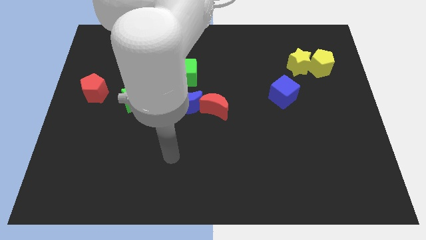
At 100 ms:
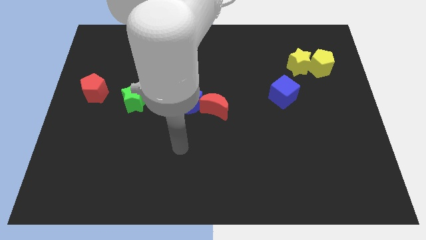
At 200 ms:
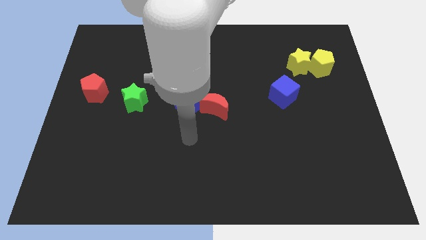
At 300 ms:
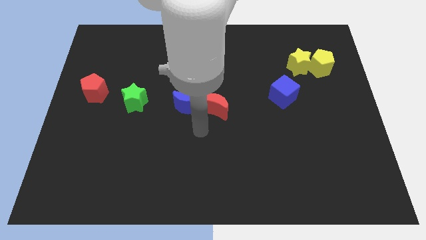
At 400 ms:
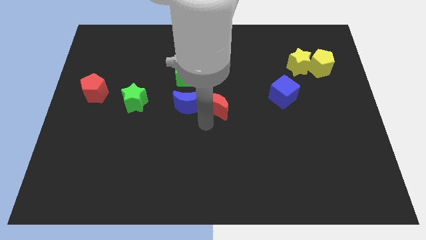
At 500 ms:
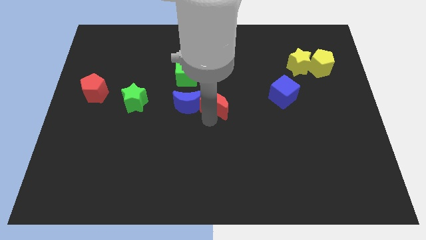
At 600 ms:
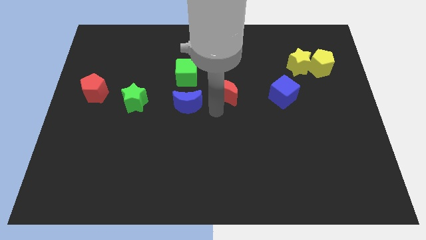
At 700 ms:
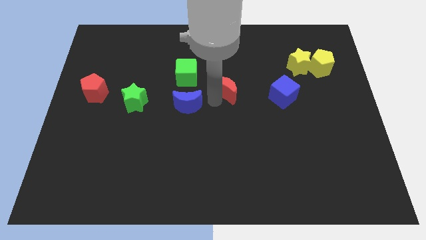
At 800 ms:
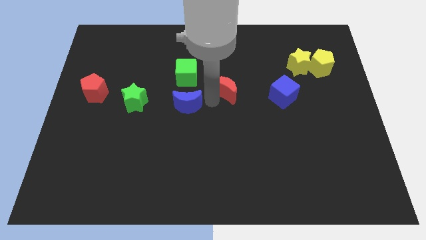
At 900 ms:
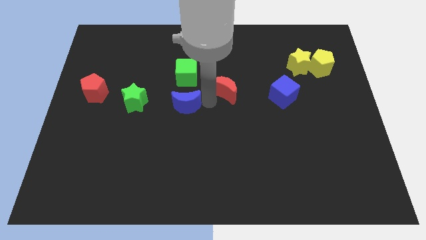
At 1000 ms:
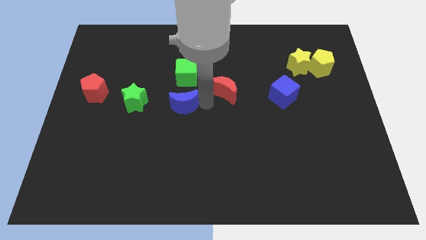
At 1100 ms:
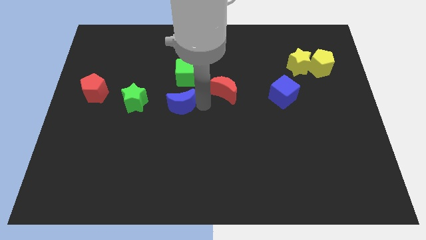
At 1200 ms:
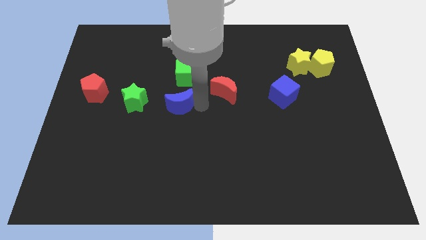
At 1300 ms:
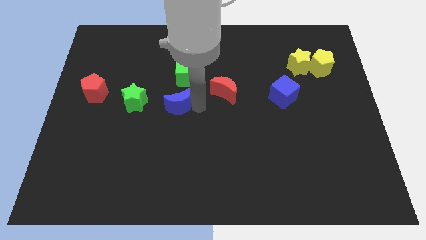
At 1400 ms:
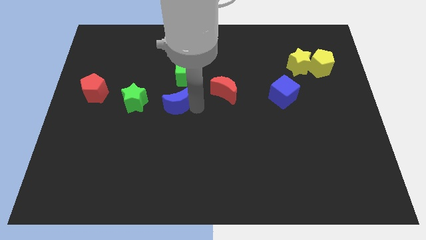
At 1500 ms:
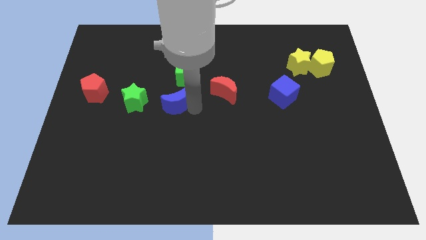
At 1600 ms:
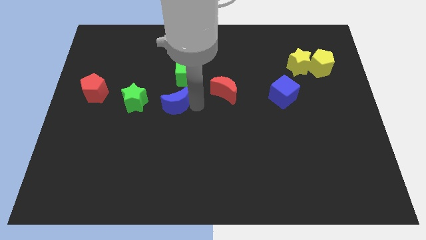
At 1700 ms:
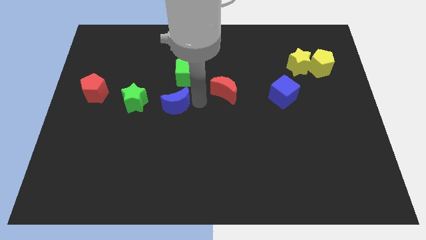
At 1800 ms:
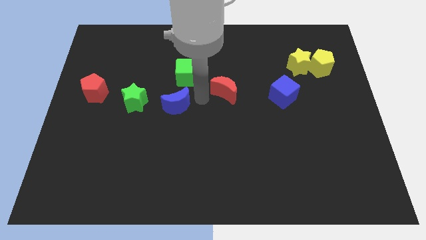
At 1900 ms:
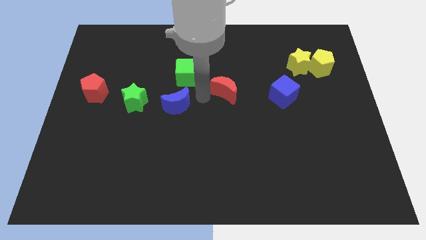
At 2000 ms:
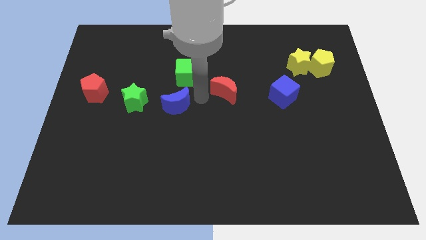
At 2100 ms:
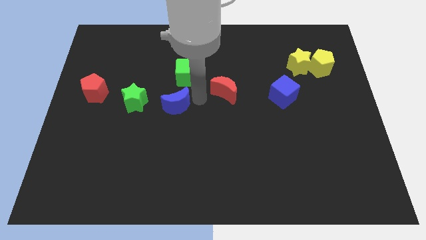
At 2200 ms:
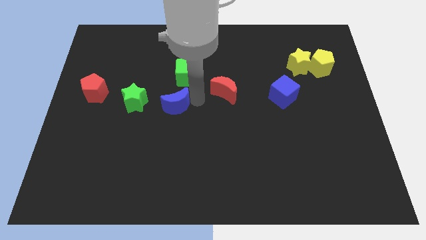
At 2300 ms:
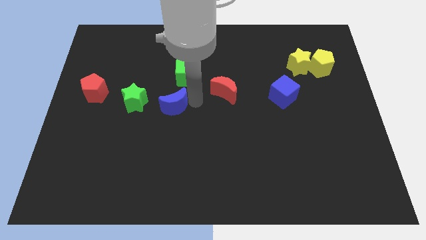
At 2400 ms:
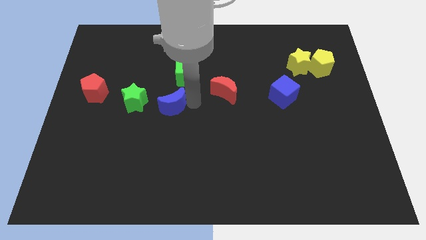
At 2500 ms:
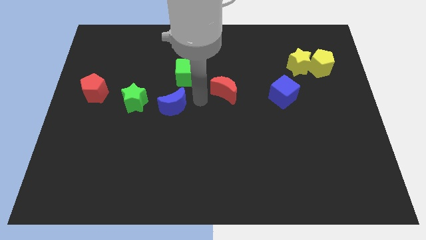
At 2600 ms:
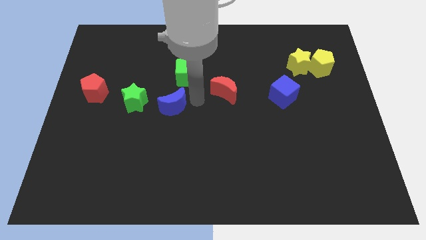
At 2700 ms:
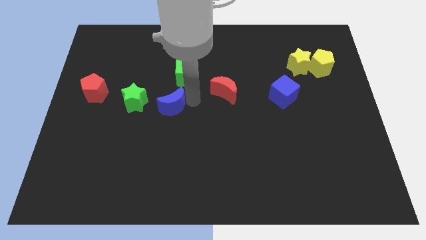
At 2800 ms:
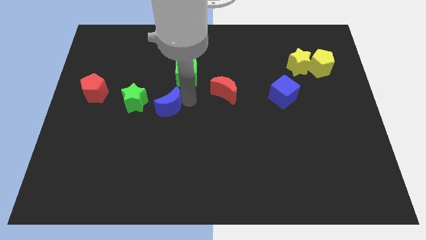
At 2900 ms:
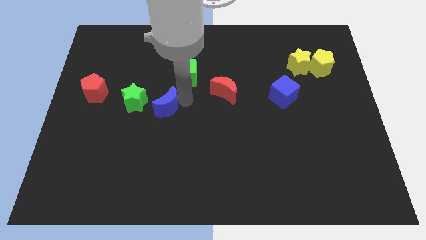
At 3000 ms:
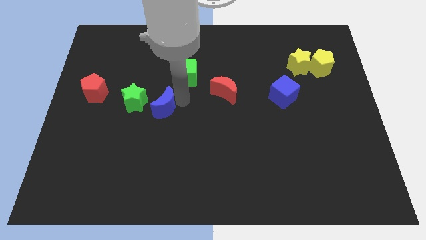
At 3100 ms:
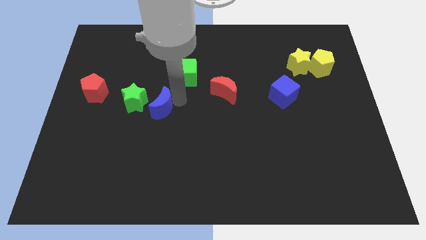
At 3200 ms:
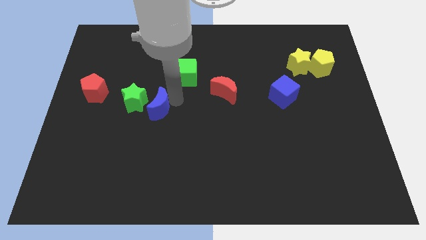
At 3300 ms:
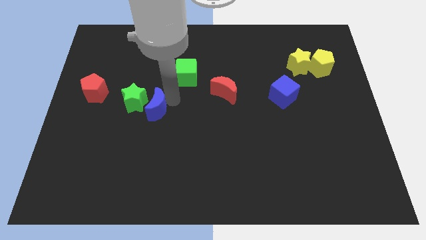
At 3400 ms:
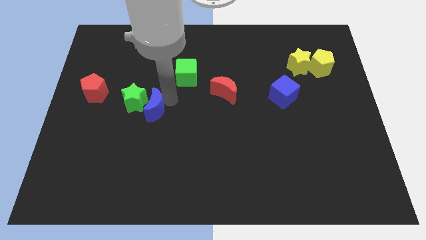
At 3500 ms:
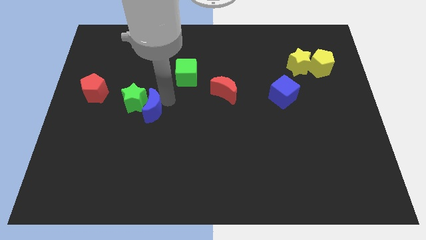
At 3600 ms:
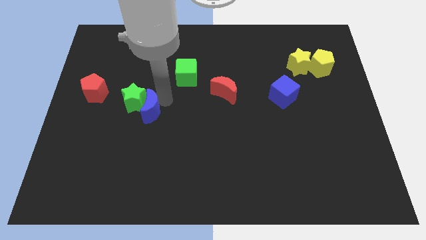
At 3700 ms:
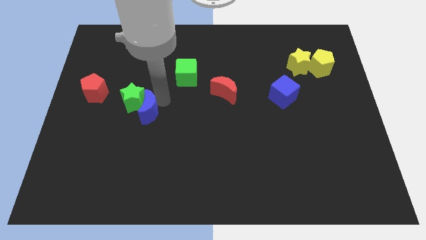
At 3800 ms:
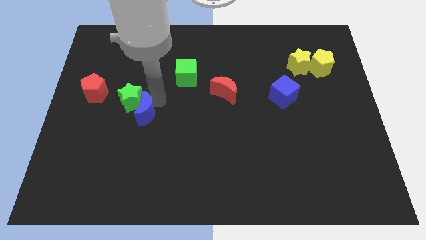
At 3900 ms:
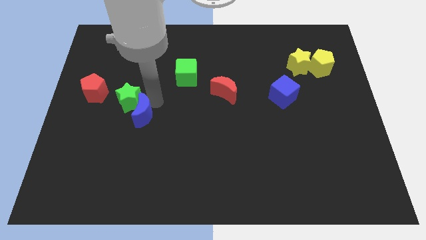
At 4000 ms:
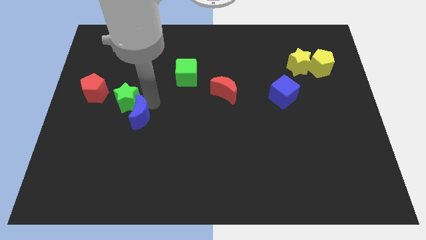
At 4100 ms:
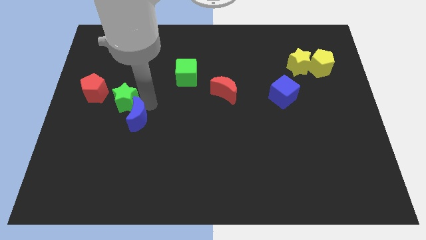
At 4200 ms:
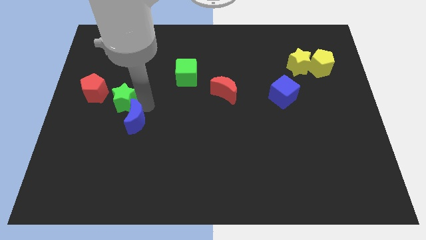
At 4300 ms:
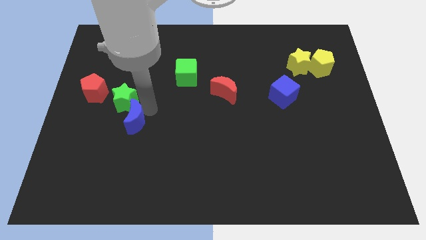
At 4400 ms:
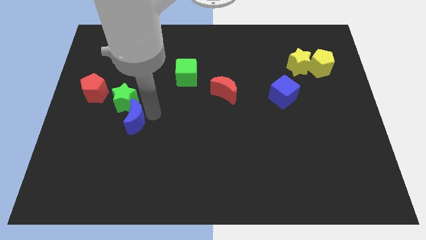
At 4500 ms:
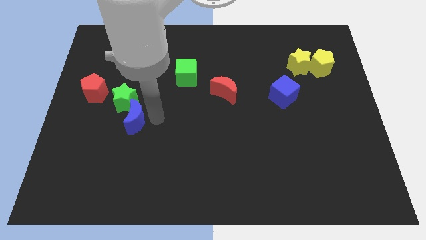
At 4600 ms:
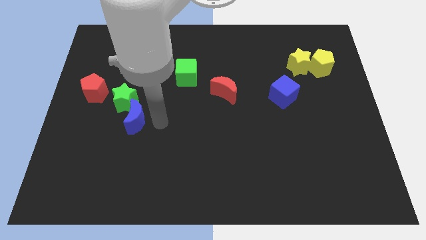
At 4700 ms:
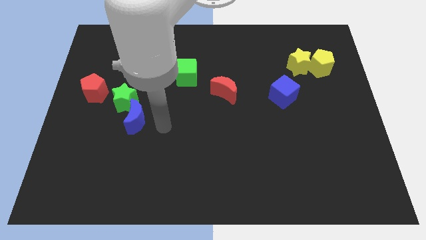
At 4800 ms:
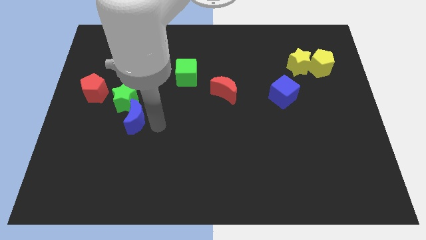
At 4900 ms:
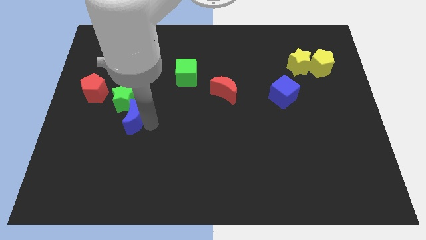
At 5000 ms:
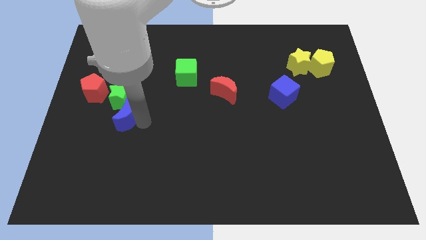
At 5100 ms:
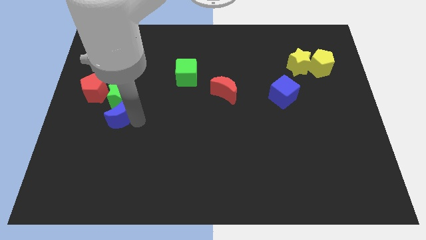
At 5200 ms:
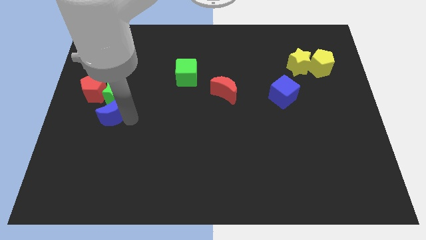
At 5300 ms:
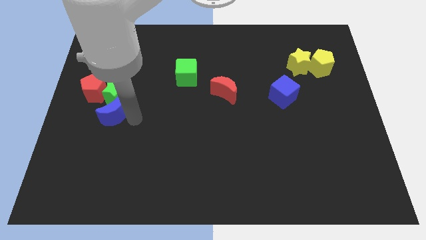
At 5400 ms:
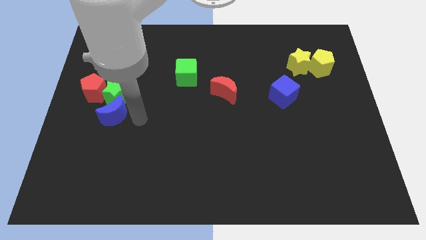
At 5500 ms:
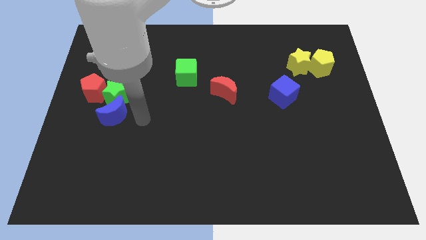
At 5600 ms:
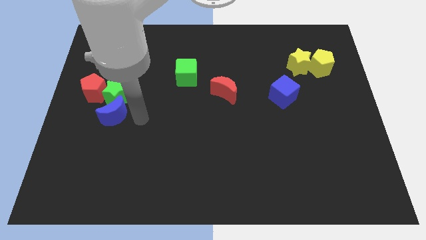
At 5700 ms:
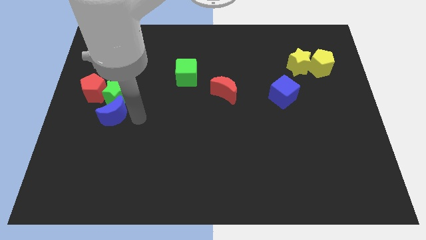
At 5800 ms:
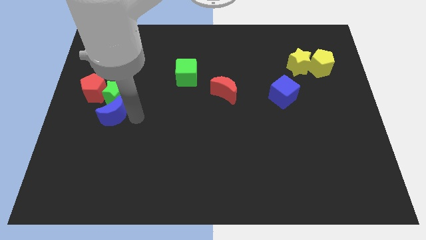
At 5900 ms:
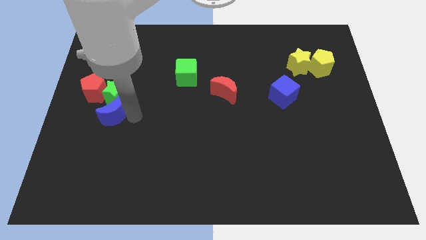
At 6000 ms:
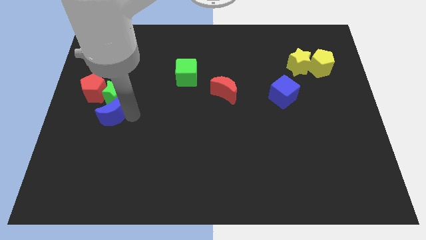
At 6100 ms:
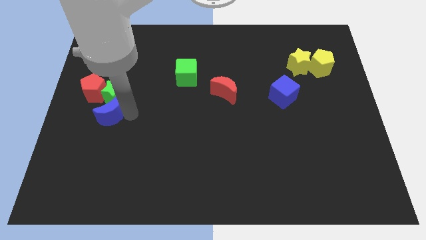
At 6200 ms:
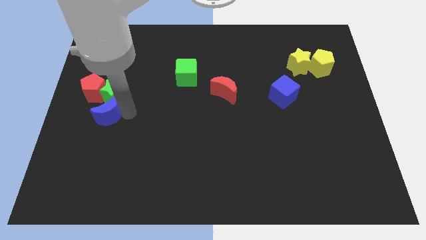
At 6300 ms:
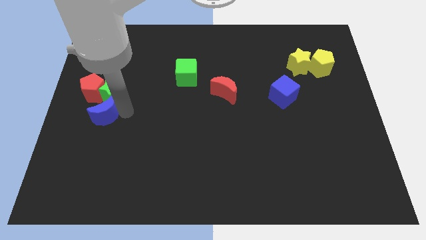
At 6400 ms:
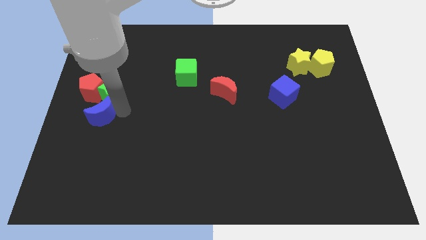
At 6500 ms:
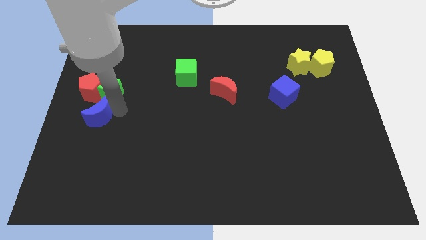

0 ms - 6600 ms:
move the blue moon to the center left

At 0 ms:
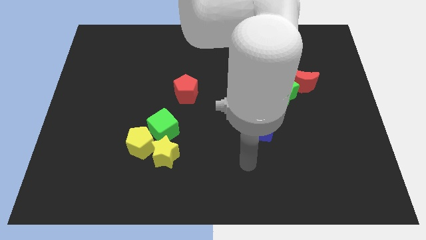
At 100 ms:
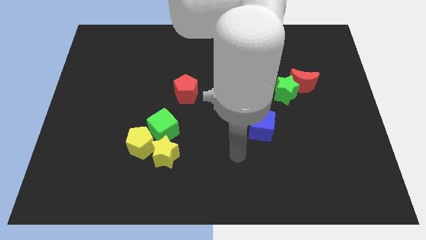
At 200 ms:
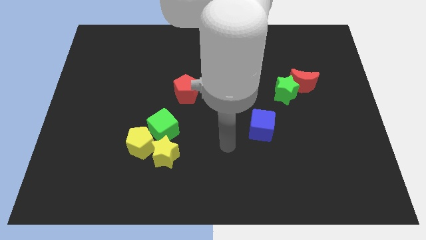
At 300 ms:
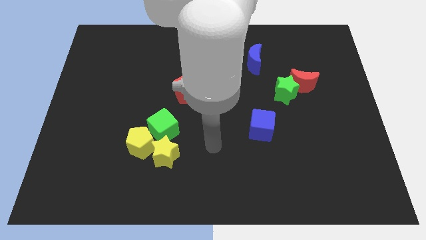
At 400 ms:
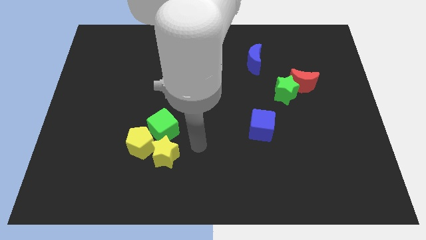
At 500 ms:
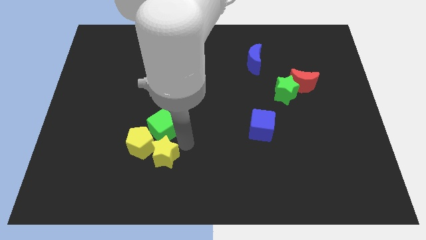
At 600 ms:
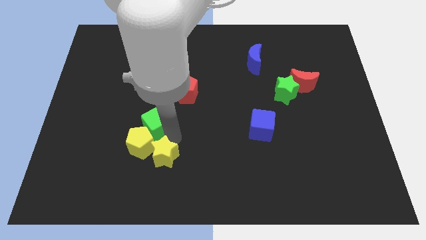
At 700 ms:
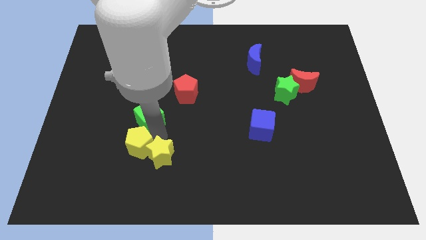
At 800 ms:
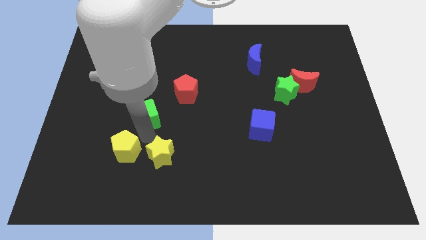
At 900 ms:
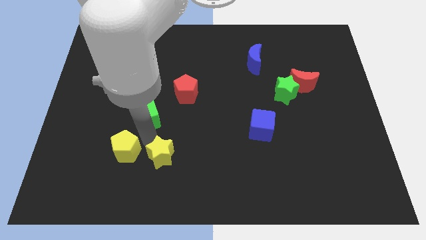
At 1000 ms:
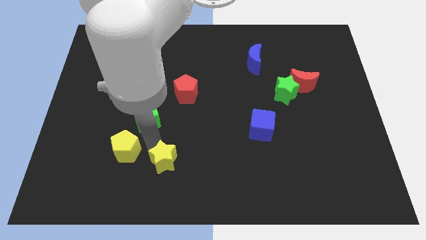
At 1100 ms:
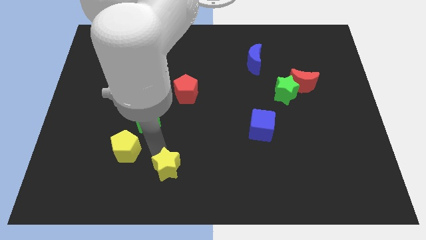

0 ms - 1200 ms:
put the yellow star to the bottom
